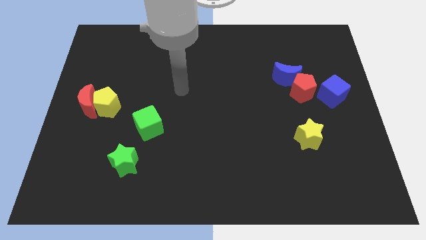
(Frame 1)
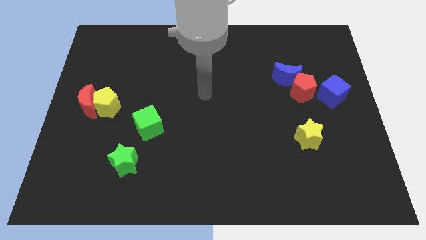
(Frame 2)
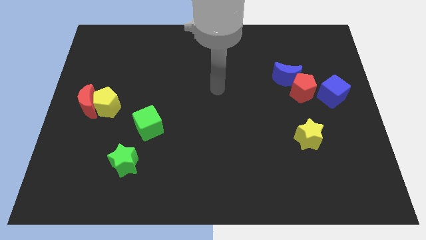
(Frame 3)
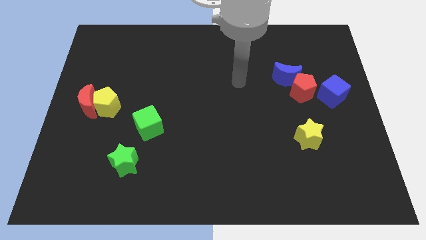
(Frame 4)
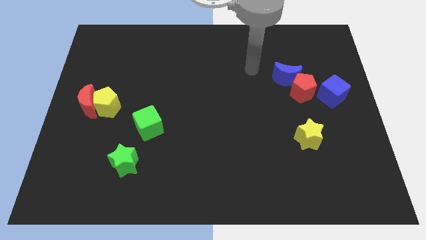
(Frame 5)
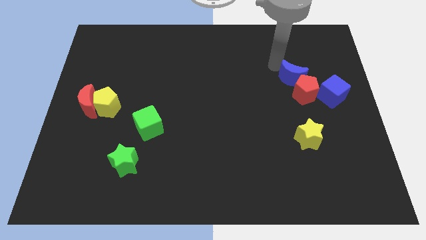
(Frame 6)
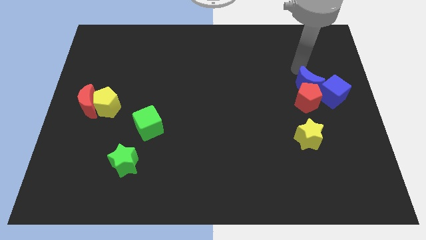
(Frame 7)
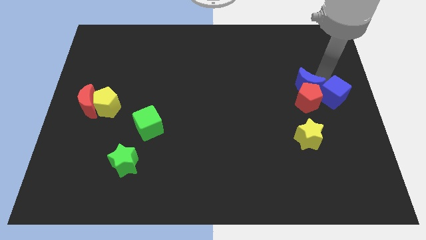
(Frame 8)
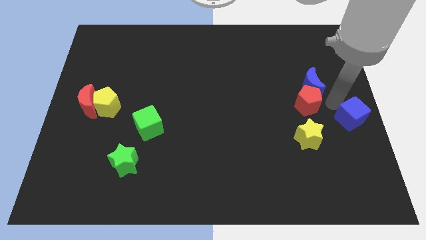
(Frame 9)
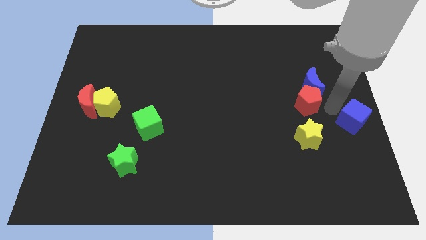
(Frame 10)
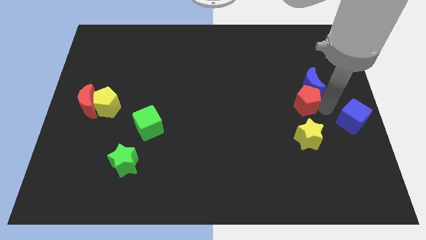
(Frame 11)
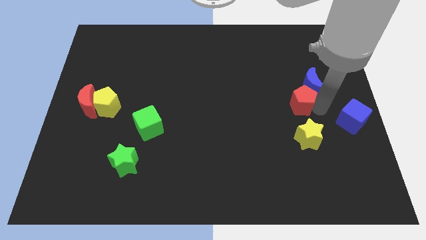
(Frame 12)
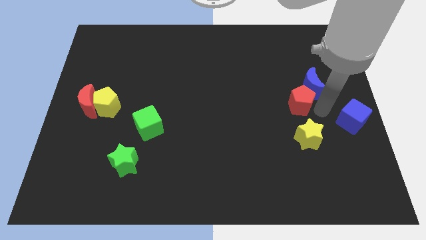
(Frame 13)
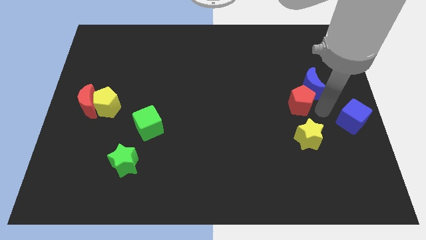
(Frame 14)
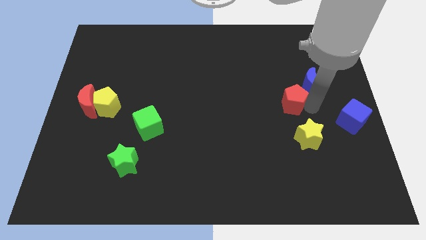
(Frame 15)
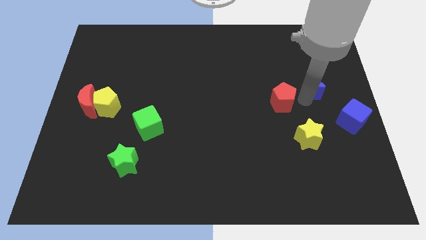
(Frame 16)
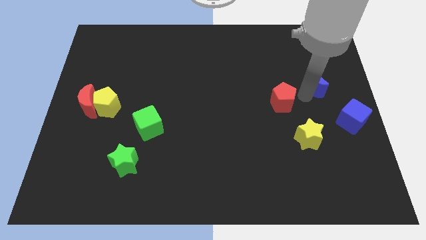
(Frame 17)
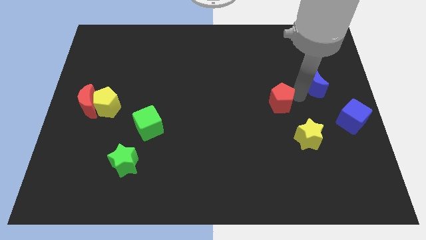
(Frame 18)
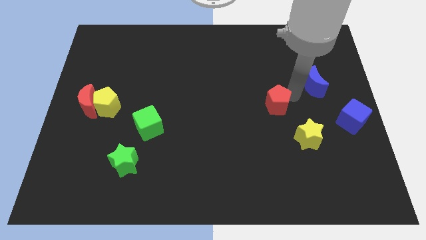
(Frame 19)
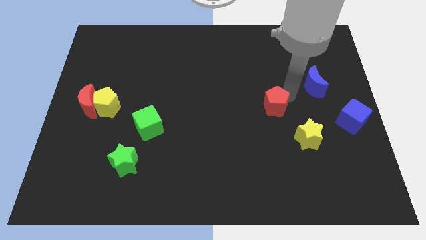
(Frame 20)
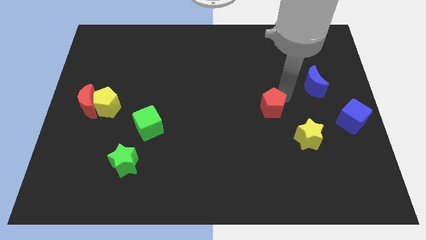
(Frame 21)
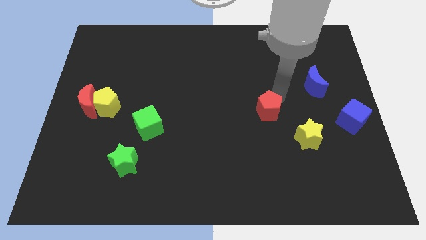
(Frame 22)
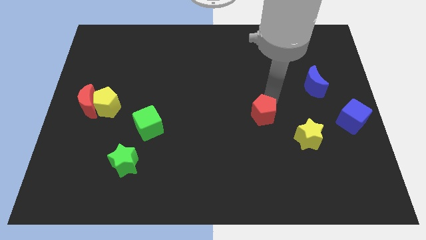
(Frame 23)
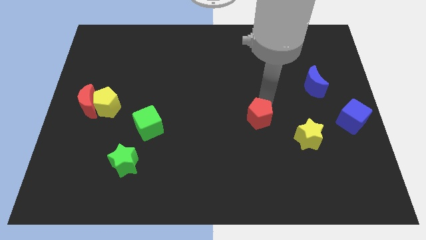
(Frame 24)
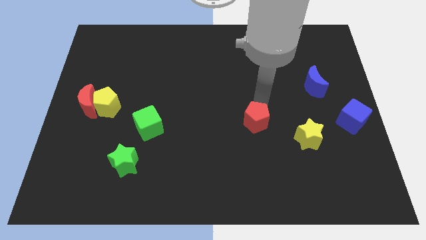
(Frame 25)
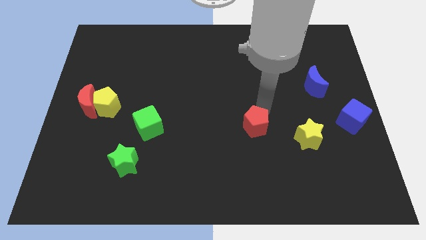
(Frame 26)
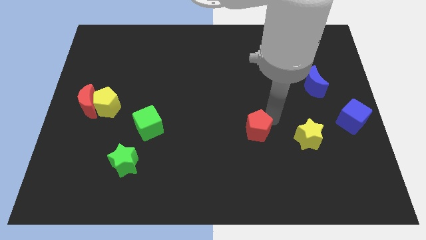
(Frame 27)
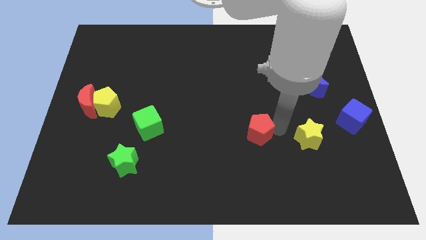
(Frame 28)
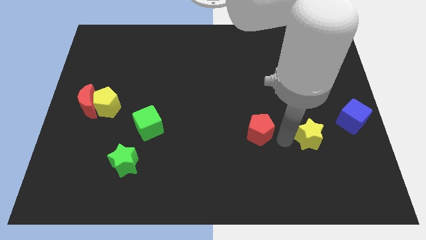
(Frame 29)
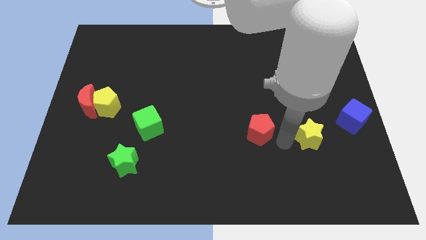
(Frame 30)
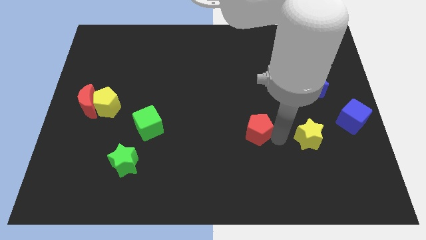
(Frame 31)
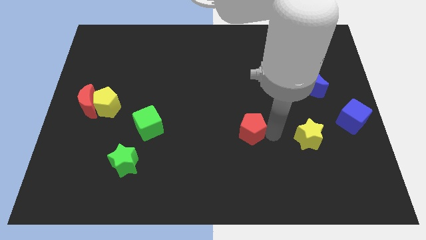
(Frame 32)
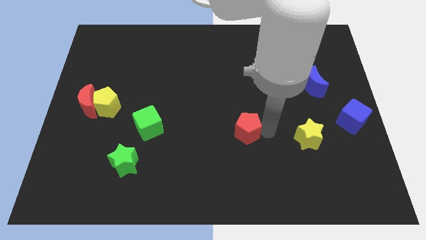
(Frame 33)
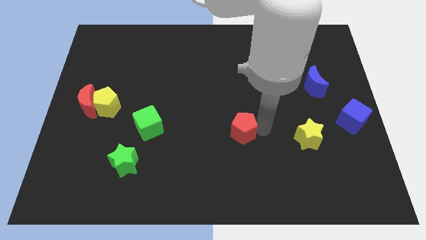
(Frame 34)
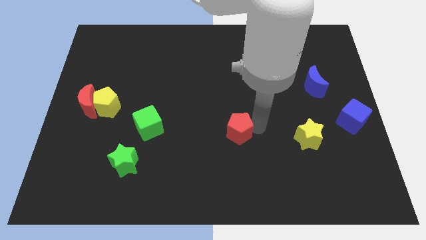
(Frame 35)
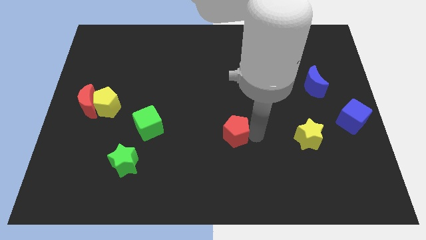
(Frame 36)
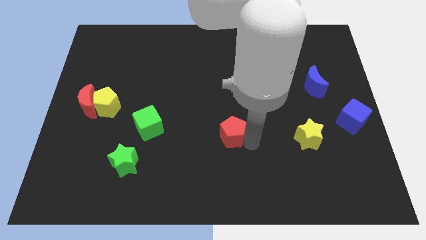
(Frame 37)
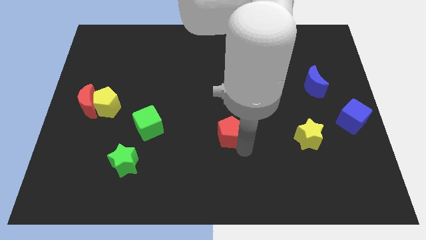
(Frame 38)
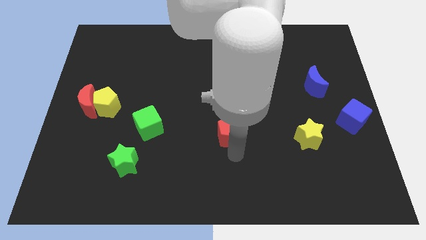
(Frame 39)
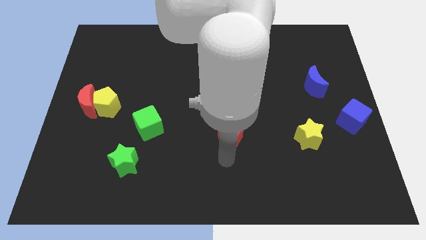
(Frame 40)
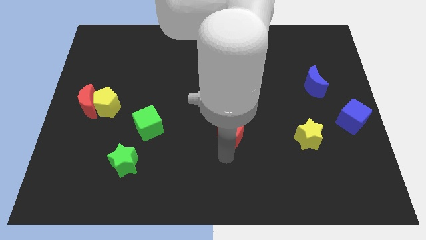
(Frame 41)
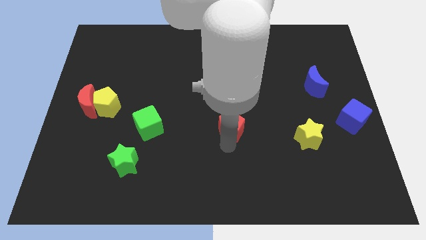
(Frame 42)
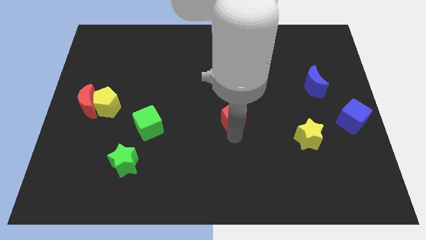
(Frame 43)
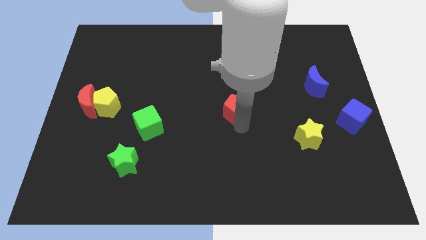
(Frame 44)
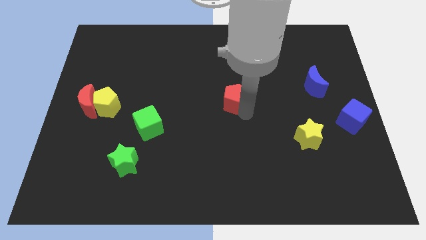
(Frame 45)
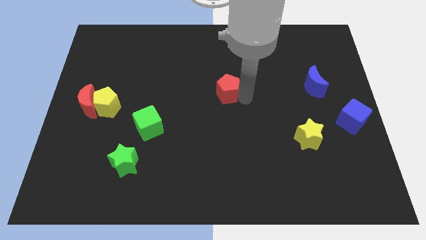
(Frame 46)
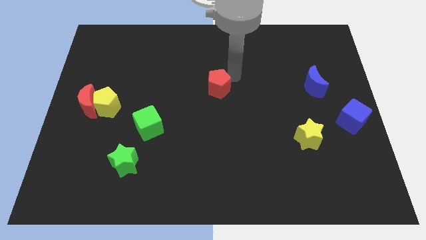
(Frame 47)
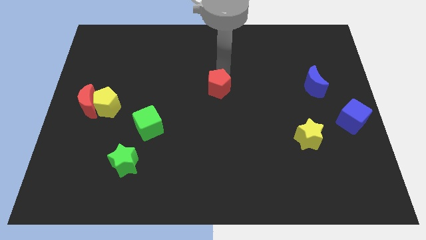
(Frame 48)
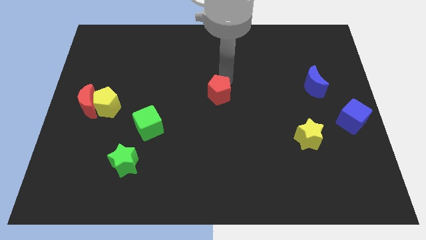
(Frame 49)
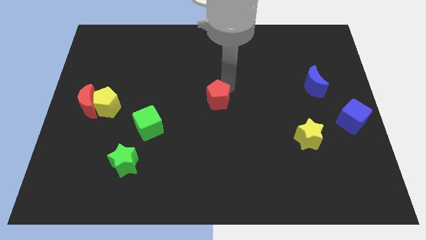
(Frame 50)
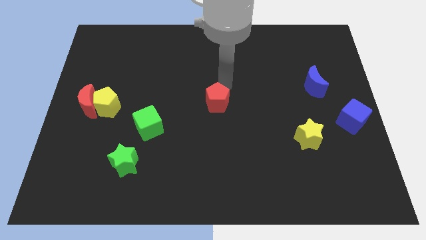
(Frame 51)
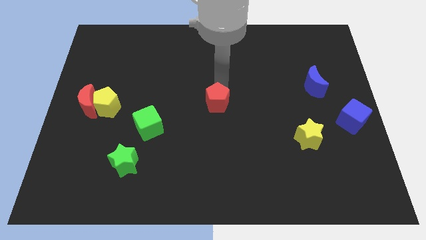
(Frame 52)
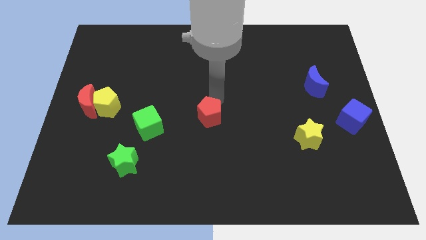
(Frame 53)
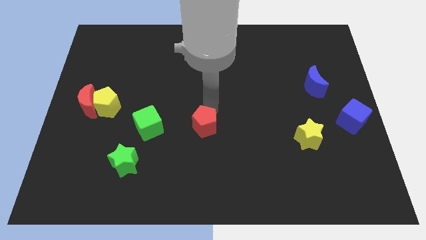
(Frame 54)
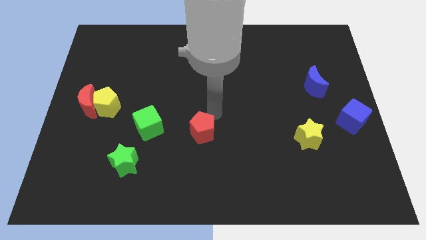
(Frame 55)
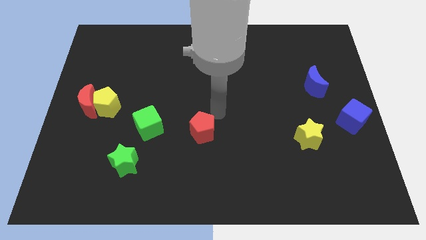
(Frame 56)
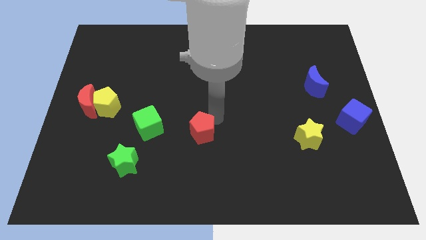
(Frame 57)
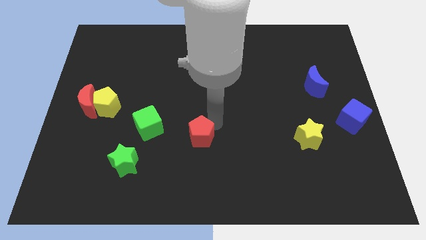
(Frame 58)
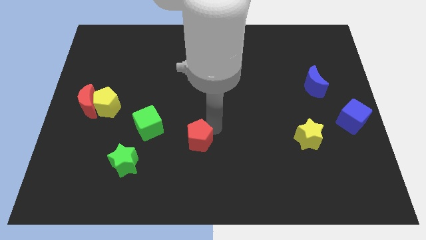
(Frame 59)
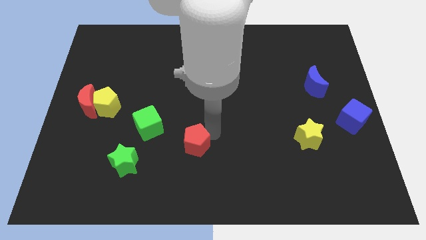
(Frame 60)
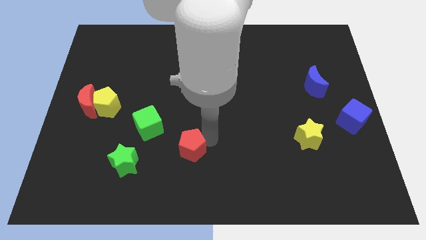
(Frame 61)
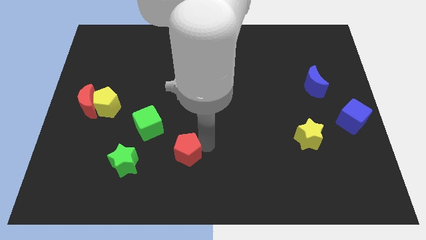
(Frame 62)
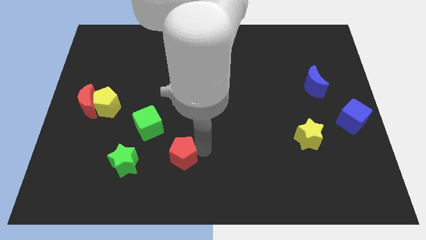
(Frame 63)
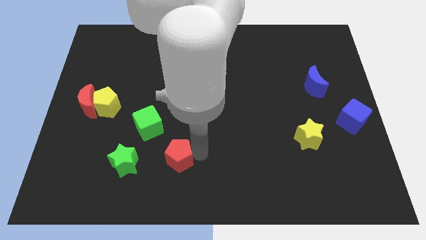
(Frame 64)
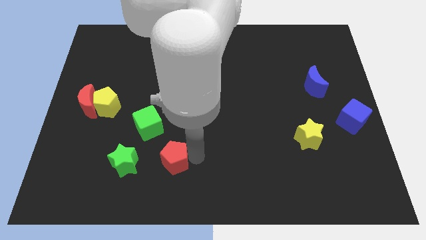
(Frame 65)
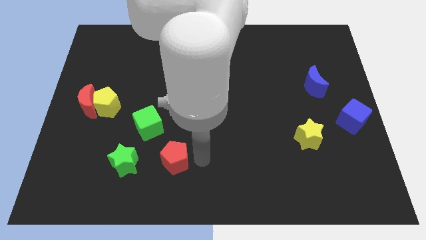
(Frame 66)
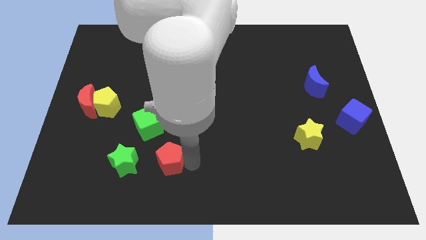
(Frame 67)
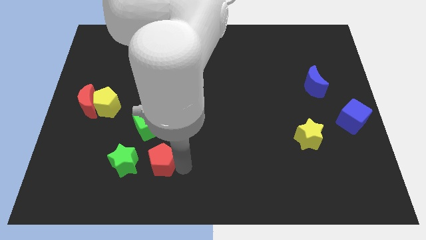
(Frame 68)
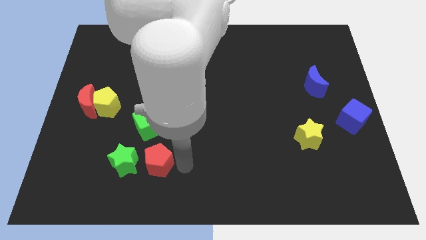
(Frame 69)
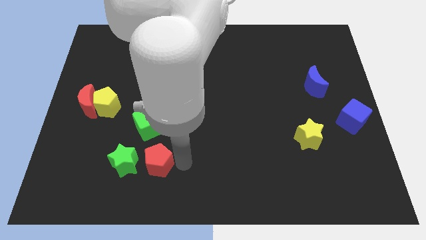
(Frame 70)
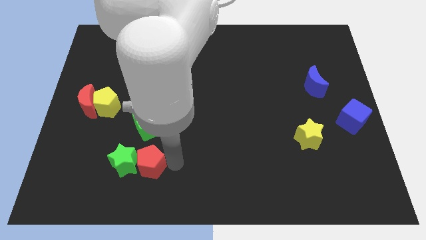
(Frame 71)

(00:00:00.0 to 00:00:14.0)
put the red pentagon towards the green star

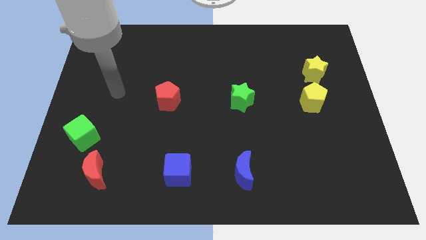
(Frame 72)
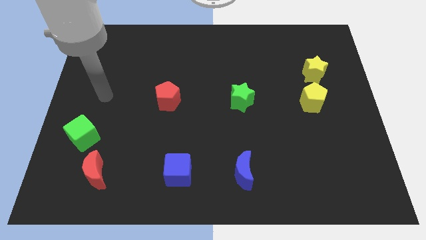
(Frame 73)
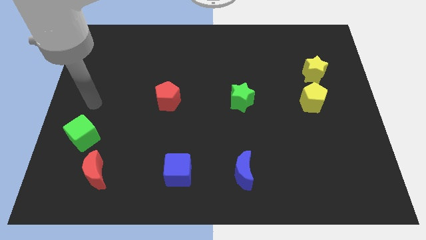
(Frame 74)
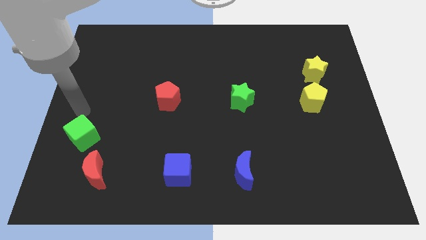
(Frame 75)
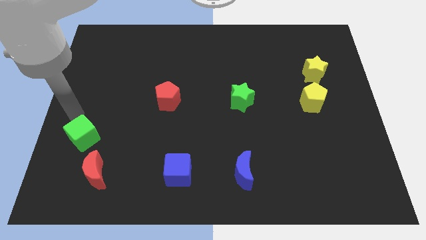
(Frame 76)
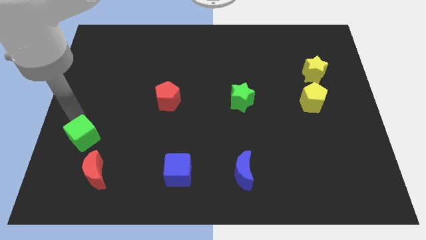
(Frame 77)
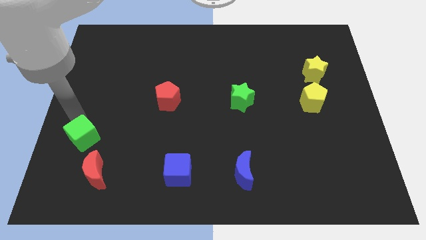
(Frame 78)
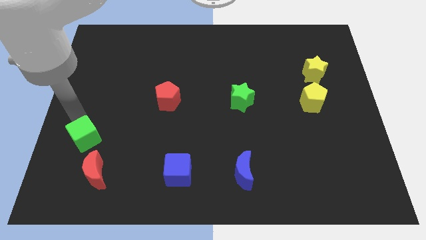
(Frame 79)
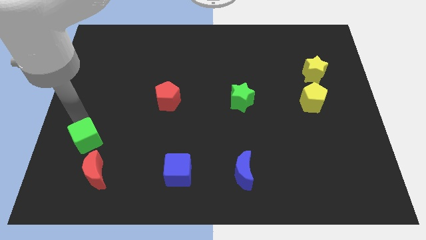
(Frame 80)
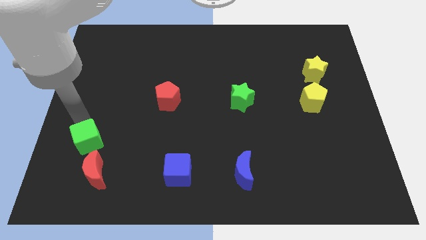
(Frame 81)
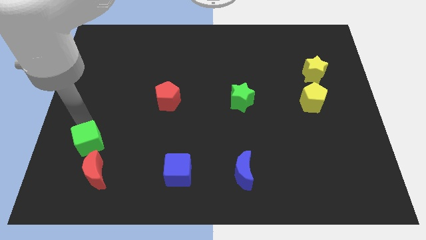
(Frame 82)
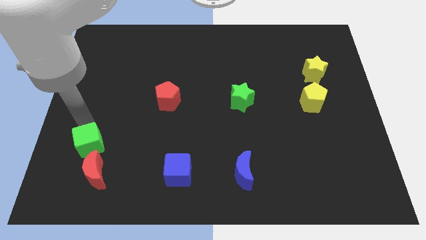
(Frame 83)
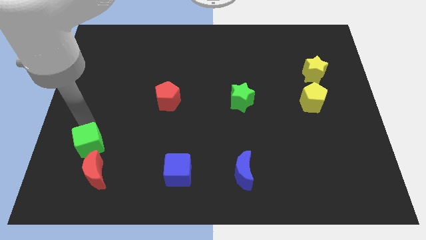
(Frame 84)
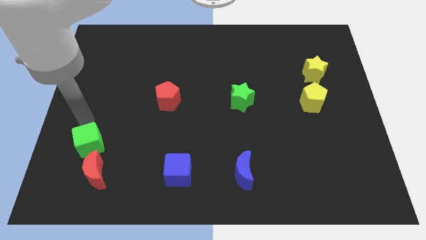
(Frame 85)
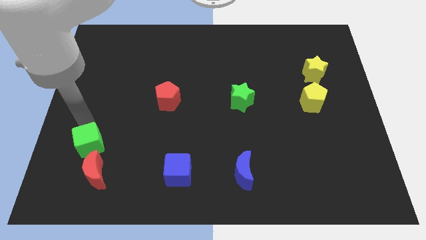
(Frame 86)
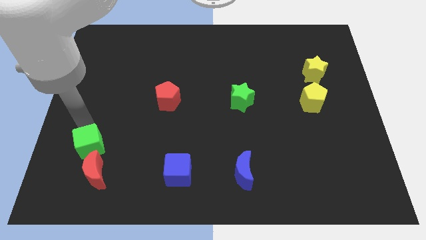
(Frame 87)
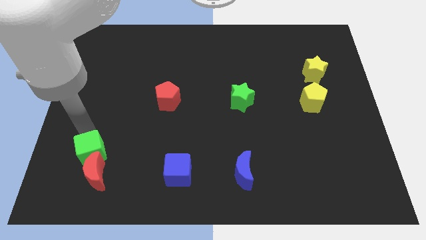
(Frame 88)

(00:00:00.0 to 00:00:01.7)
slide the green cube to the red moon
